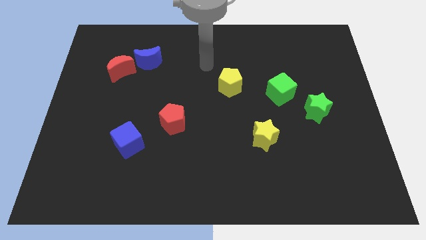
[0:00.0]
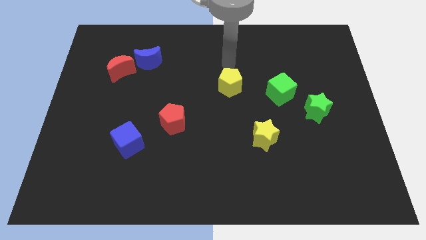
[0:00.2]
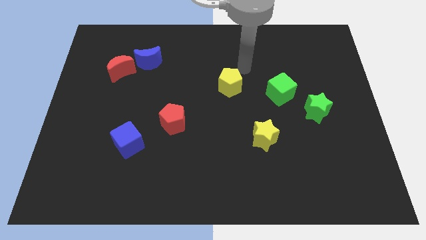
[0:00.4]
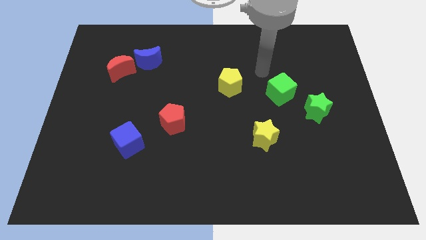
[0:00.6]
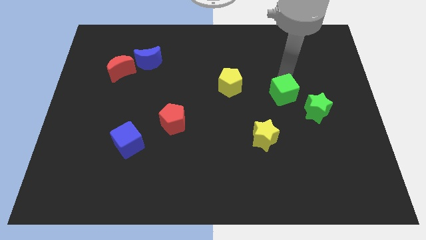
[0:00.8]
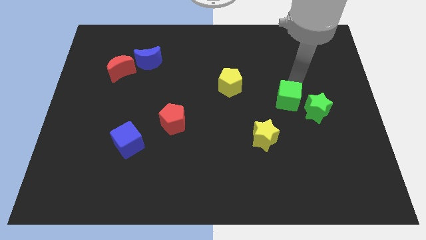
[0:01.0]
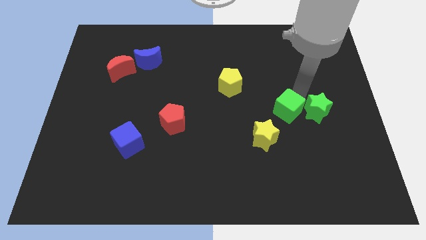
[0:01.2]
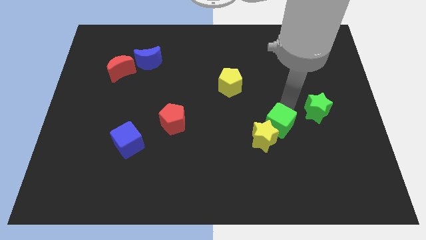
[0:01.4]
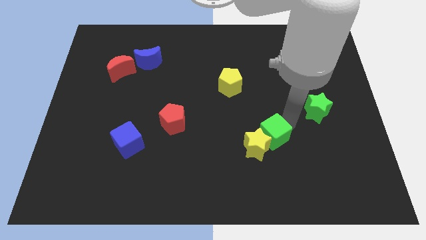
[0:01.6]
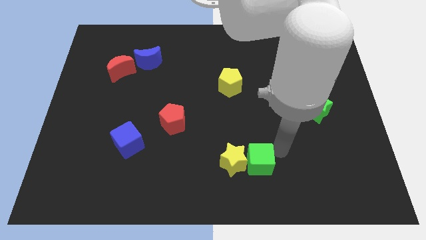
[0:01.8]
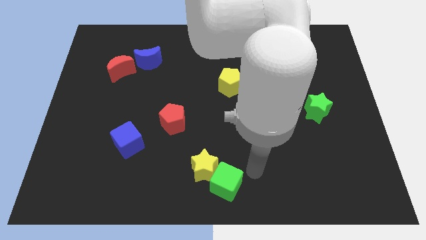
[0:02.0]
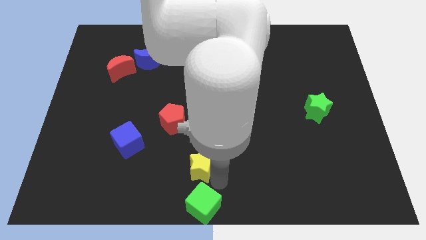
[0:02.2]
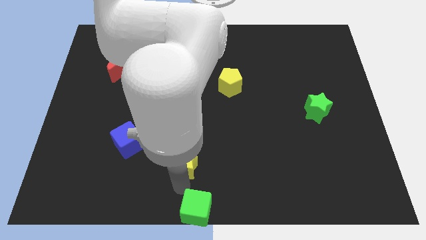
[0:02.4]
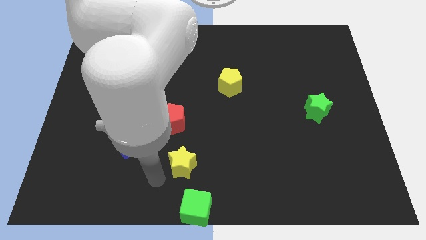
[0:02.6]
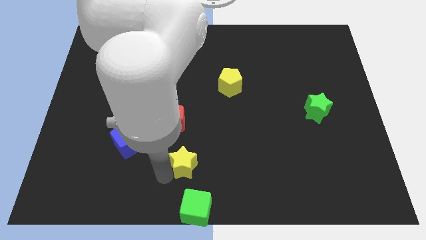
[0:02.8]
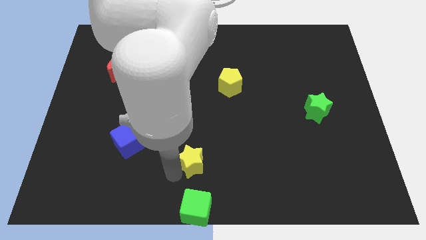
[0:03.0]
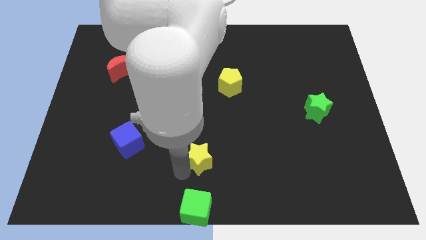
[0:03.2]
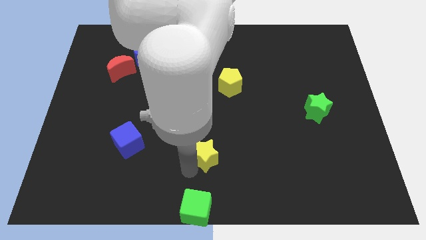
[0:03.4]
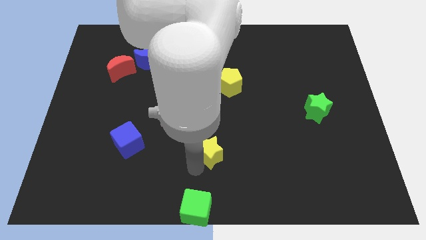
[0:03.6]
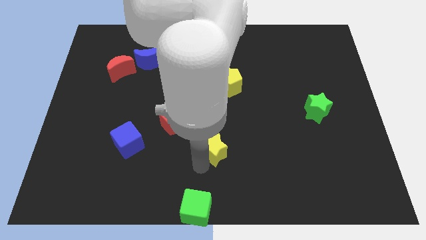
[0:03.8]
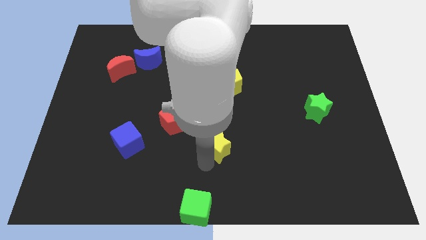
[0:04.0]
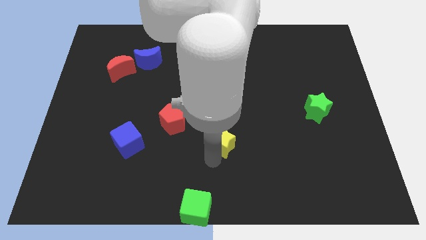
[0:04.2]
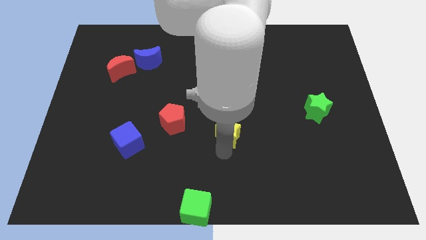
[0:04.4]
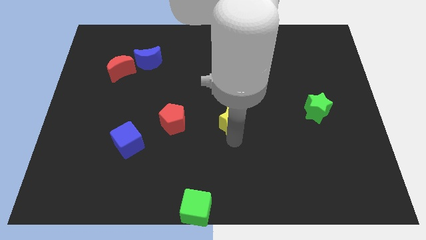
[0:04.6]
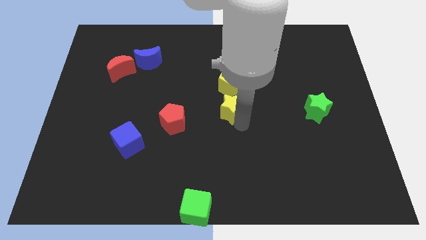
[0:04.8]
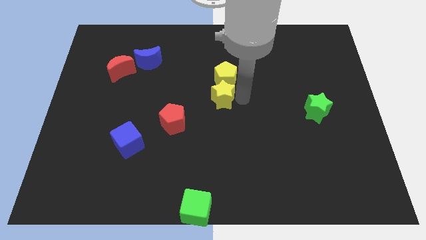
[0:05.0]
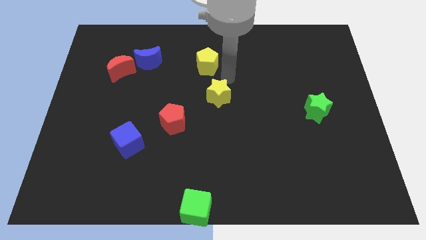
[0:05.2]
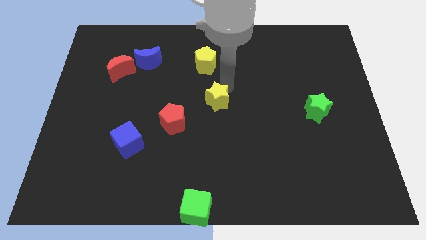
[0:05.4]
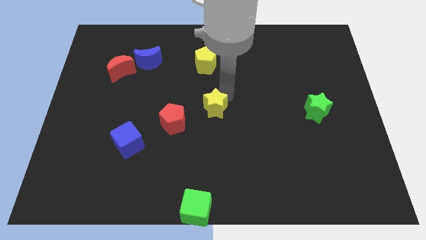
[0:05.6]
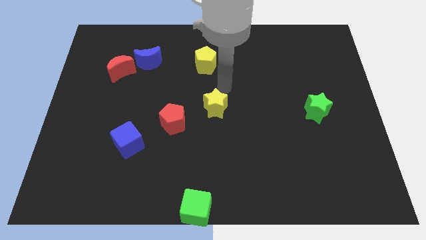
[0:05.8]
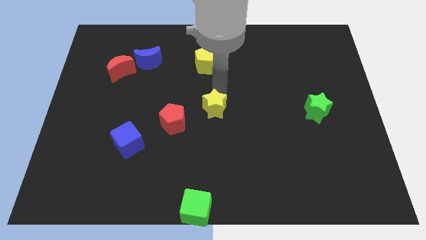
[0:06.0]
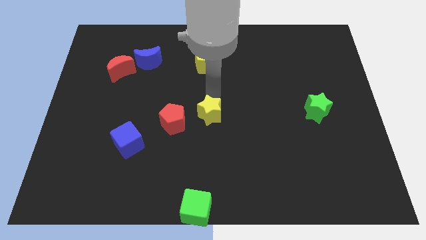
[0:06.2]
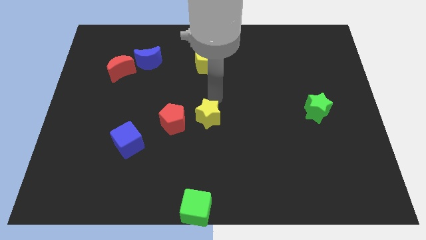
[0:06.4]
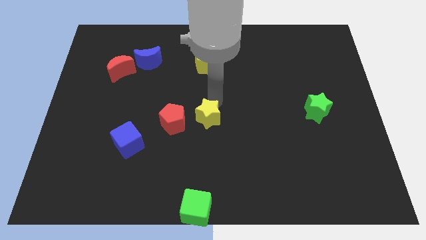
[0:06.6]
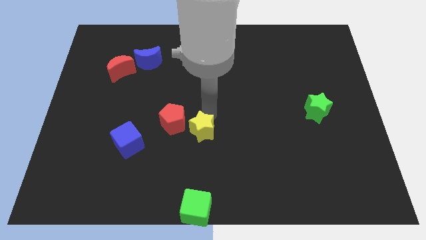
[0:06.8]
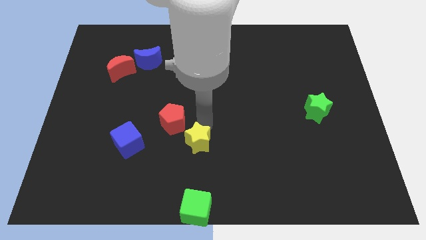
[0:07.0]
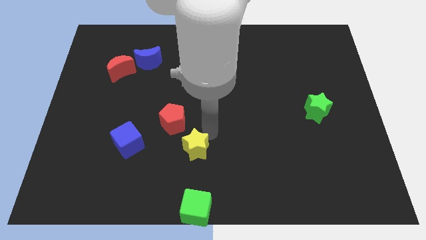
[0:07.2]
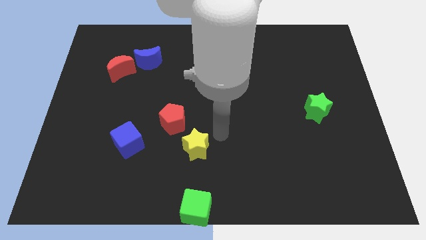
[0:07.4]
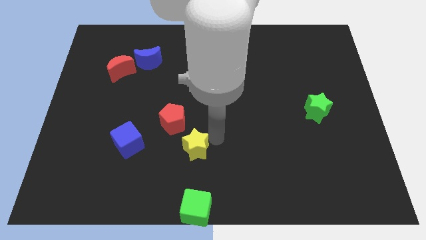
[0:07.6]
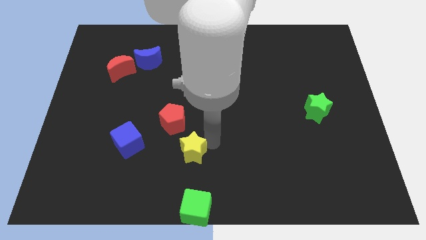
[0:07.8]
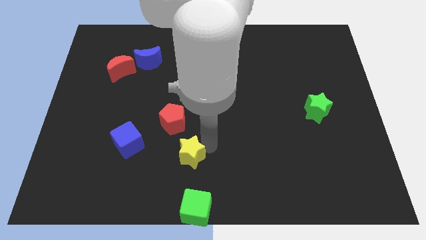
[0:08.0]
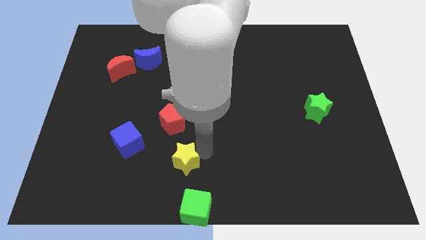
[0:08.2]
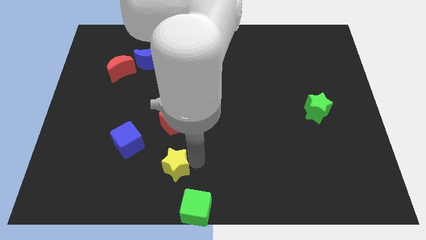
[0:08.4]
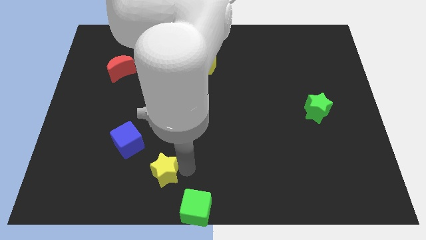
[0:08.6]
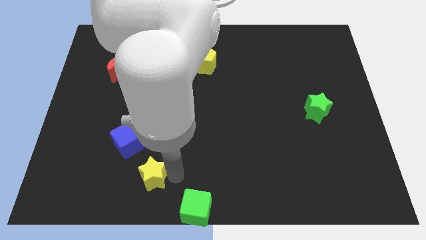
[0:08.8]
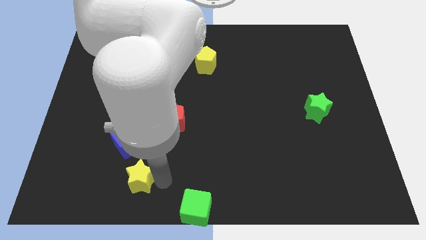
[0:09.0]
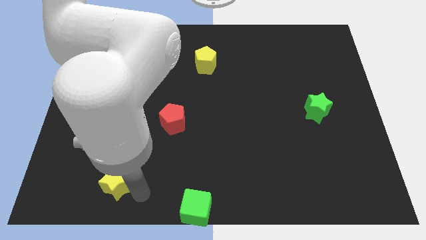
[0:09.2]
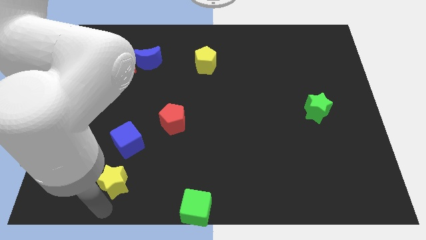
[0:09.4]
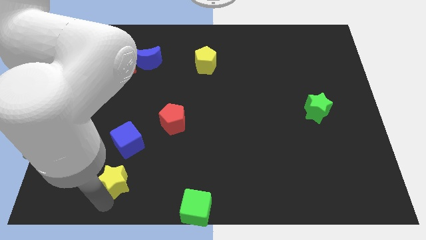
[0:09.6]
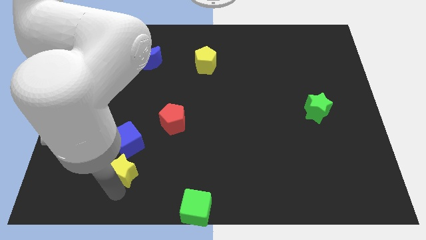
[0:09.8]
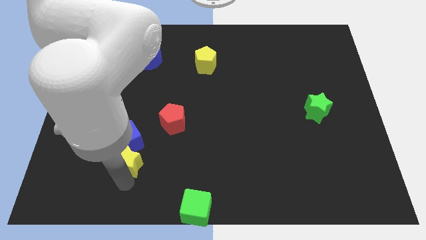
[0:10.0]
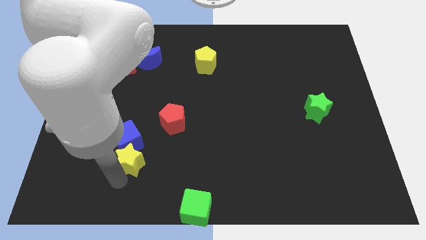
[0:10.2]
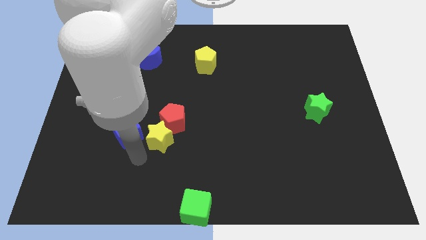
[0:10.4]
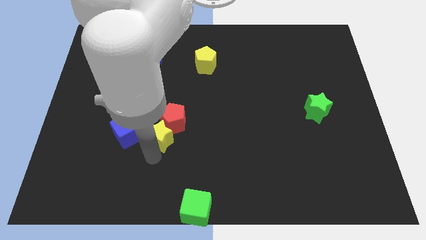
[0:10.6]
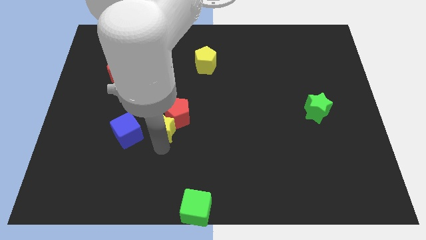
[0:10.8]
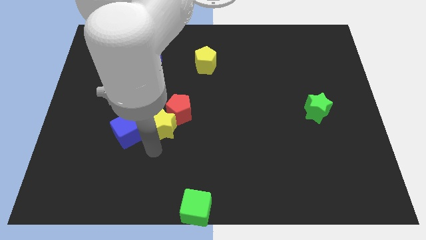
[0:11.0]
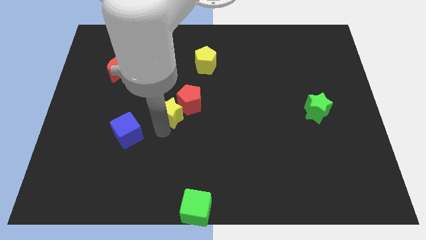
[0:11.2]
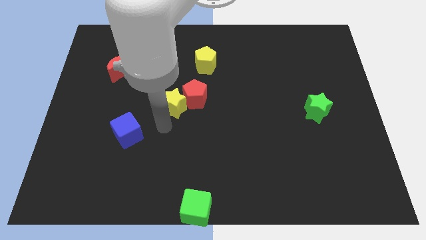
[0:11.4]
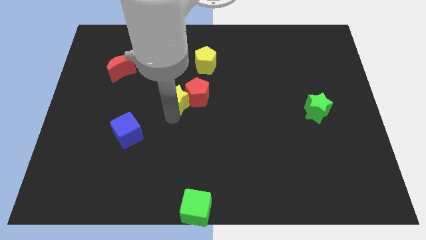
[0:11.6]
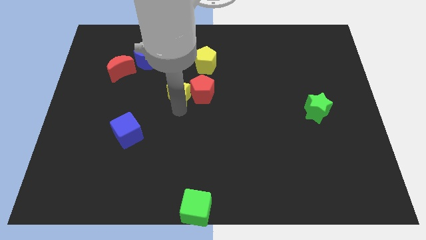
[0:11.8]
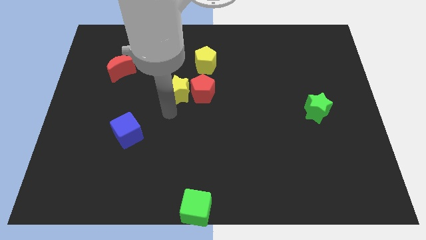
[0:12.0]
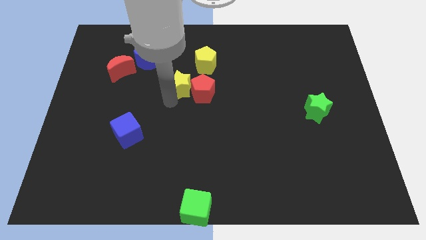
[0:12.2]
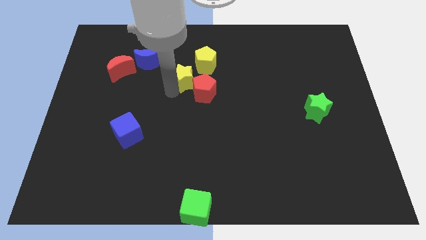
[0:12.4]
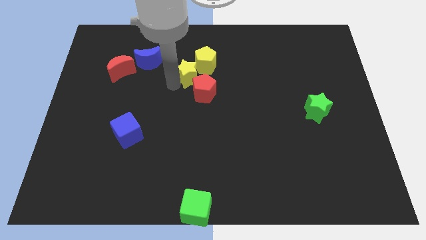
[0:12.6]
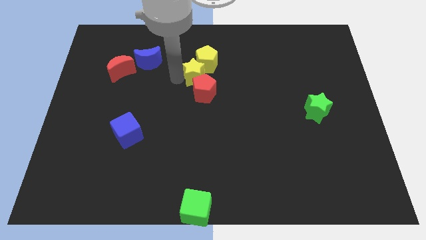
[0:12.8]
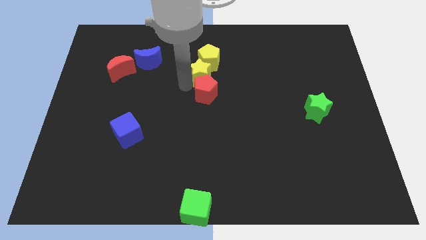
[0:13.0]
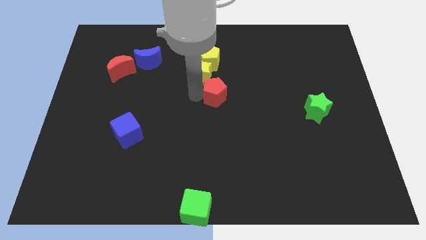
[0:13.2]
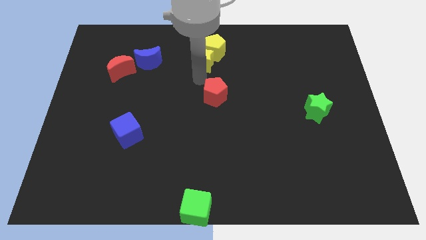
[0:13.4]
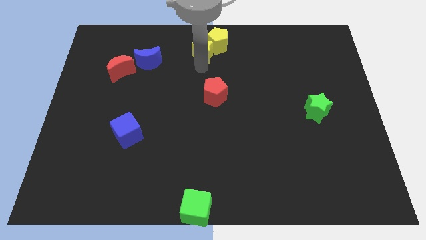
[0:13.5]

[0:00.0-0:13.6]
slide the yellow star to the towards your base
